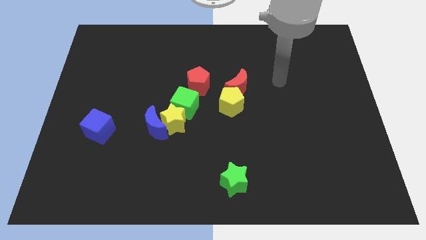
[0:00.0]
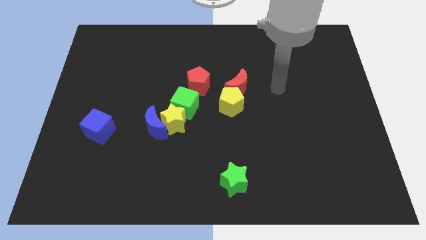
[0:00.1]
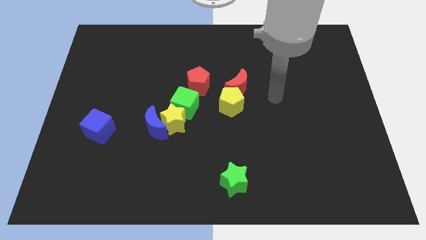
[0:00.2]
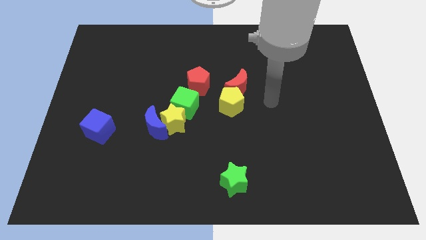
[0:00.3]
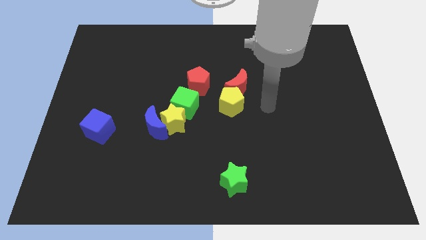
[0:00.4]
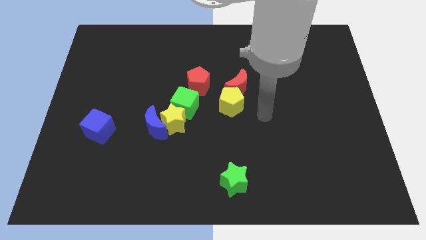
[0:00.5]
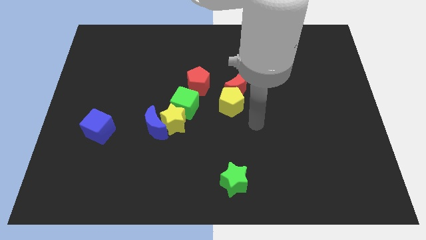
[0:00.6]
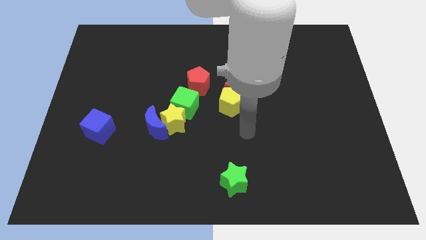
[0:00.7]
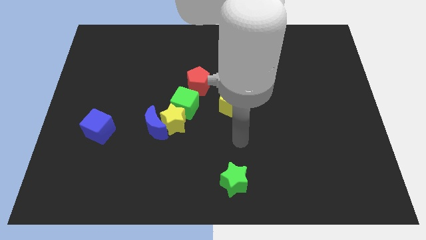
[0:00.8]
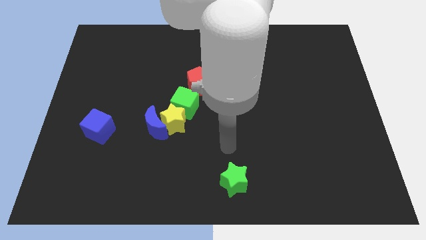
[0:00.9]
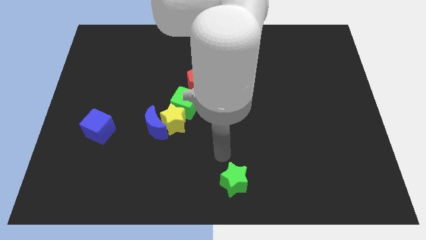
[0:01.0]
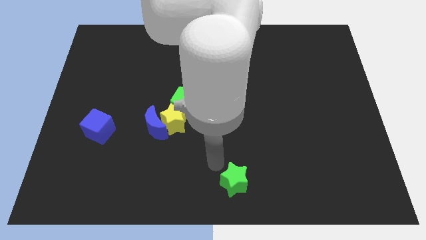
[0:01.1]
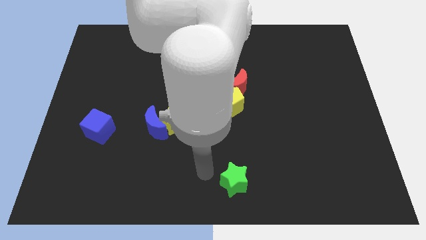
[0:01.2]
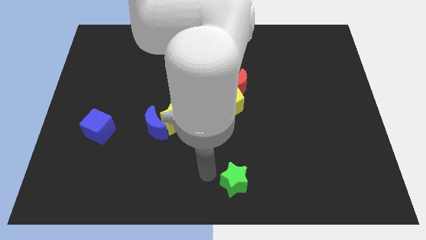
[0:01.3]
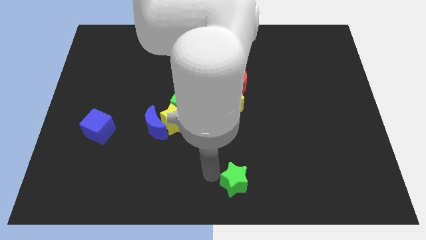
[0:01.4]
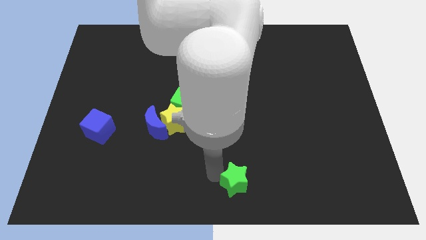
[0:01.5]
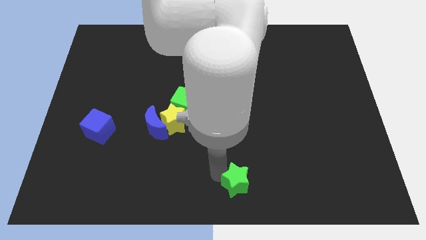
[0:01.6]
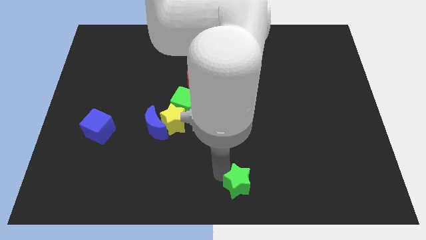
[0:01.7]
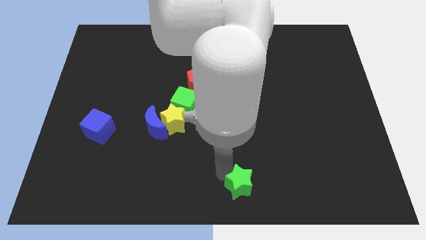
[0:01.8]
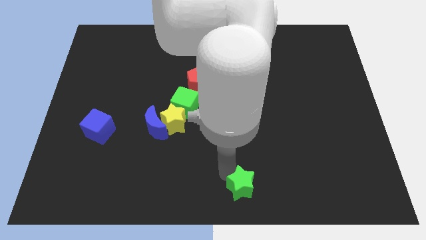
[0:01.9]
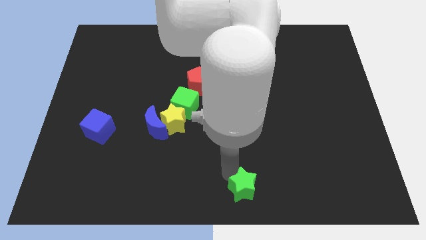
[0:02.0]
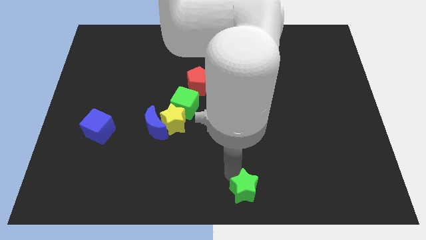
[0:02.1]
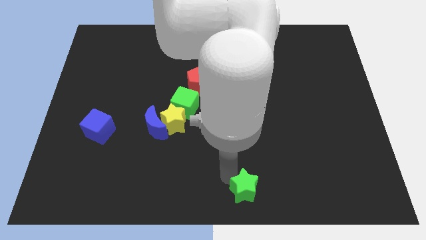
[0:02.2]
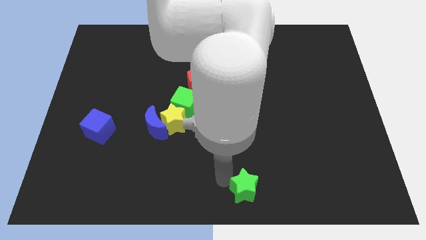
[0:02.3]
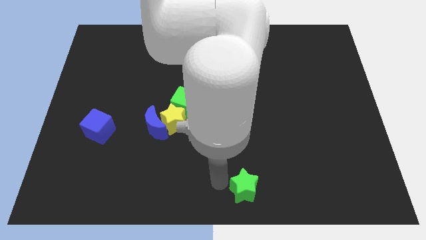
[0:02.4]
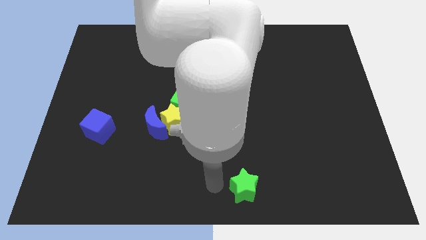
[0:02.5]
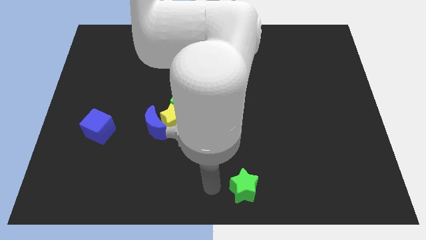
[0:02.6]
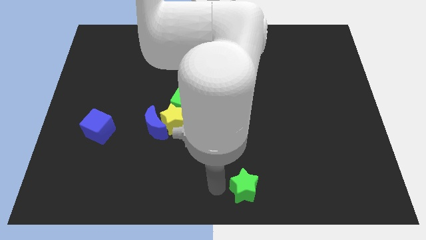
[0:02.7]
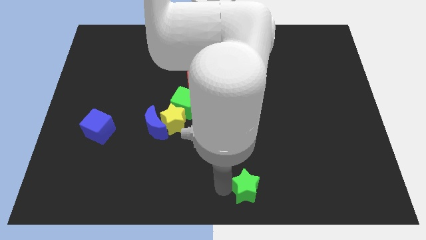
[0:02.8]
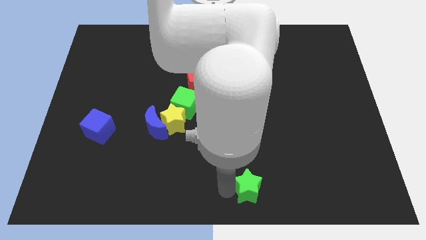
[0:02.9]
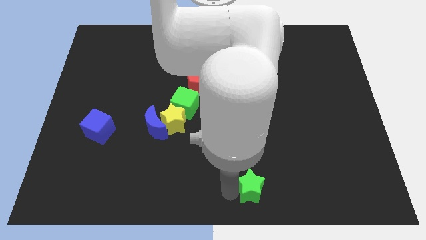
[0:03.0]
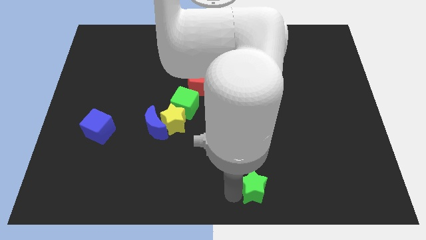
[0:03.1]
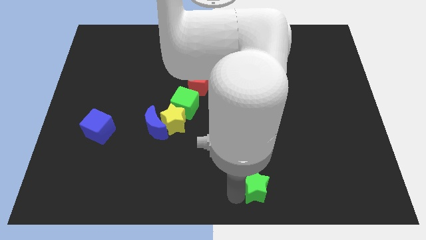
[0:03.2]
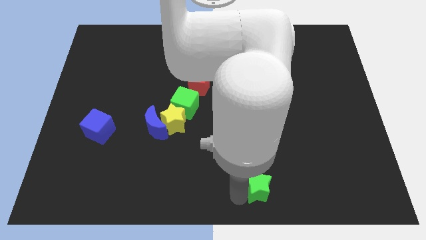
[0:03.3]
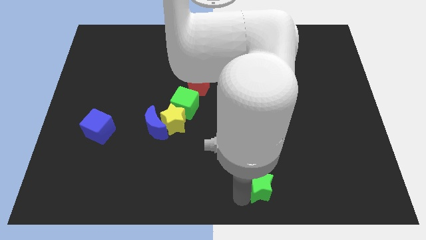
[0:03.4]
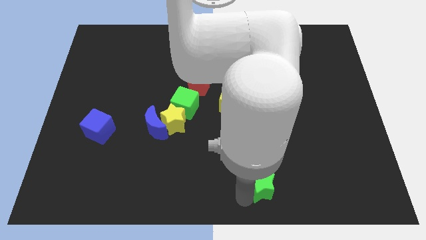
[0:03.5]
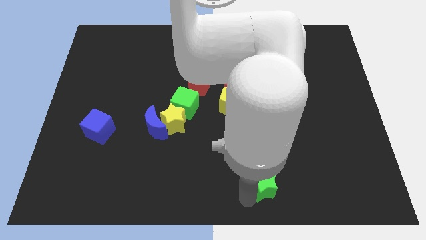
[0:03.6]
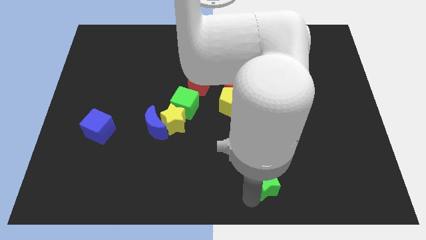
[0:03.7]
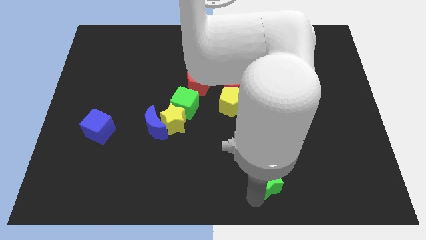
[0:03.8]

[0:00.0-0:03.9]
slide the green star a little bit to the right

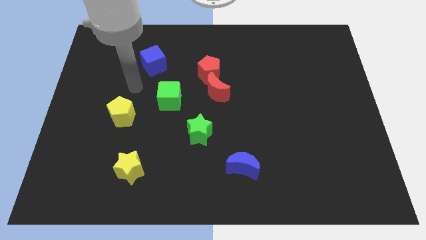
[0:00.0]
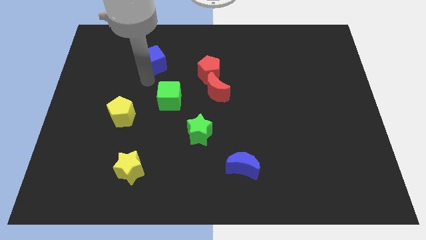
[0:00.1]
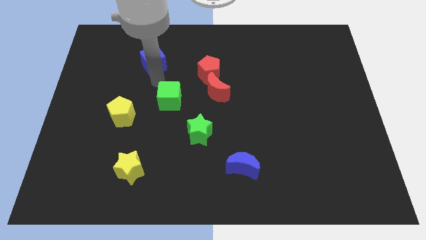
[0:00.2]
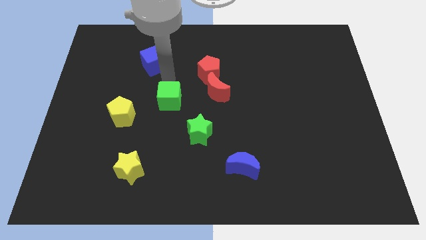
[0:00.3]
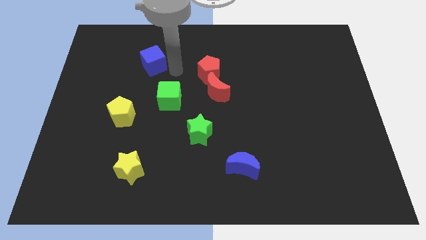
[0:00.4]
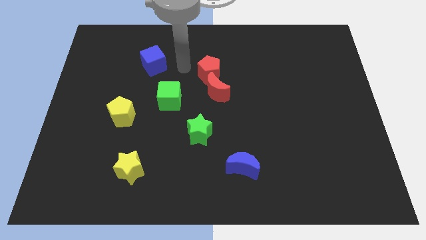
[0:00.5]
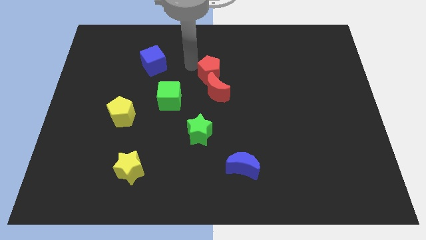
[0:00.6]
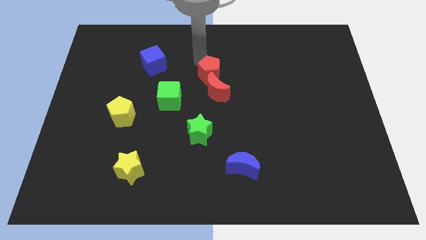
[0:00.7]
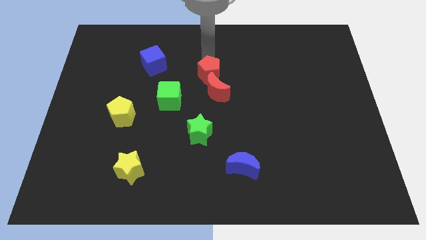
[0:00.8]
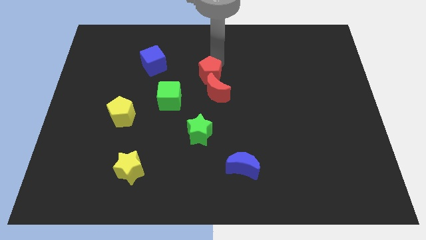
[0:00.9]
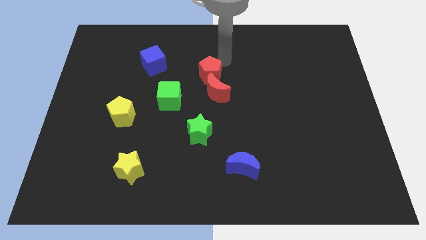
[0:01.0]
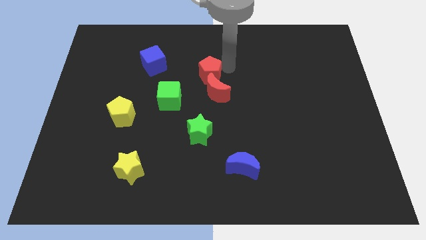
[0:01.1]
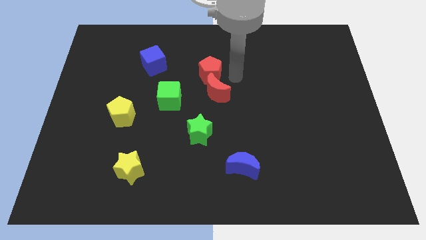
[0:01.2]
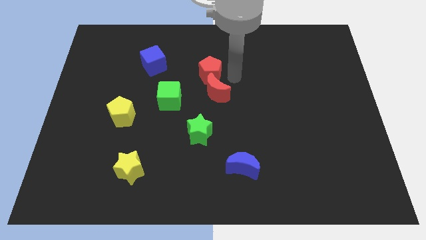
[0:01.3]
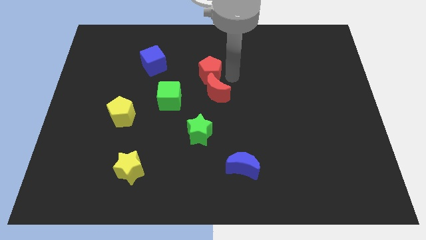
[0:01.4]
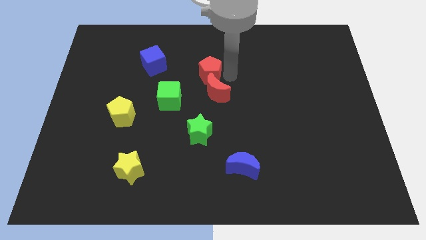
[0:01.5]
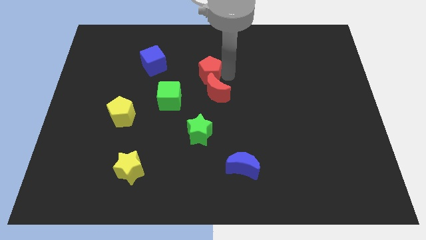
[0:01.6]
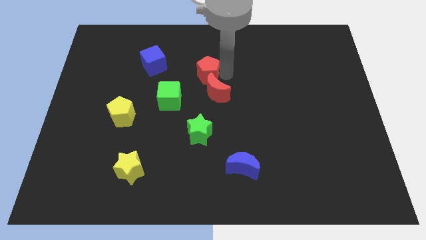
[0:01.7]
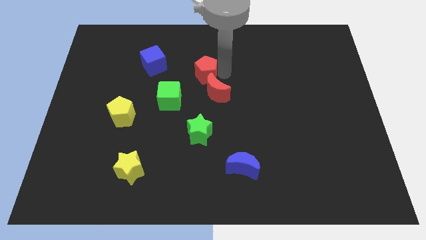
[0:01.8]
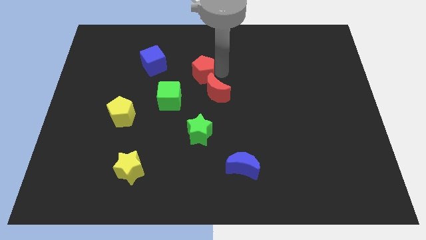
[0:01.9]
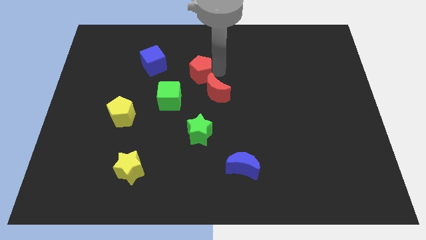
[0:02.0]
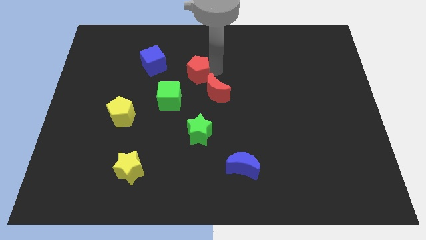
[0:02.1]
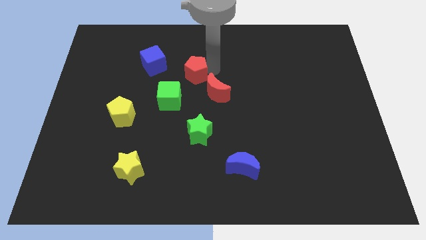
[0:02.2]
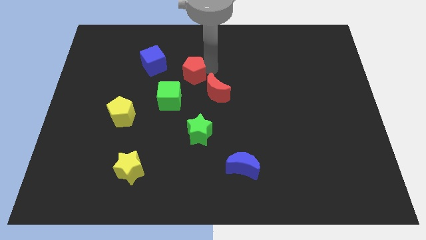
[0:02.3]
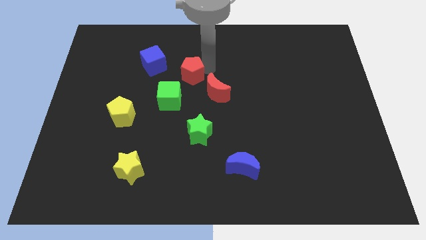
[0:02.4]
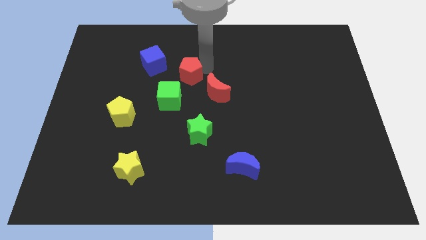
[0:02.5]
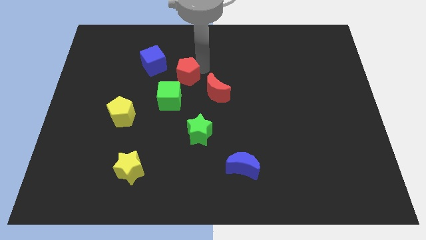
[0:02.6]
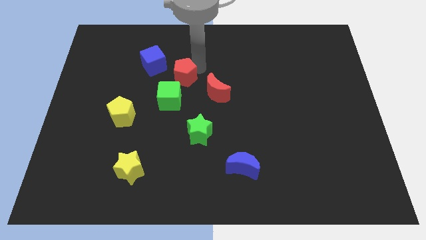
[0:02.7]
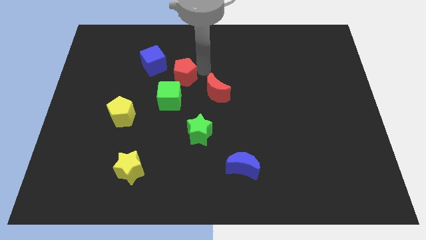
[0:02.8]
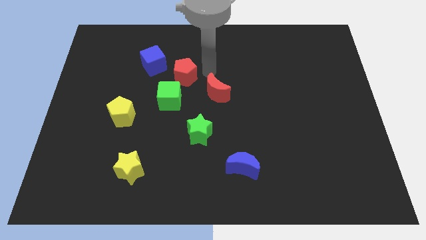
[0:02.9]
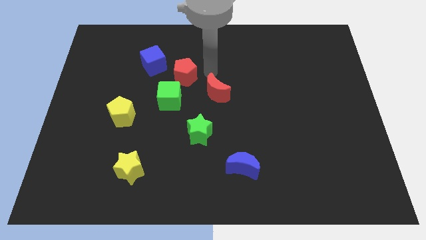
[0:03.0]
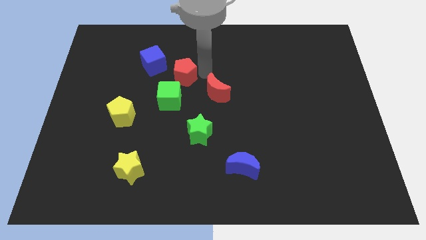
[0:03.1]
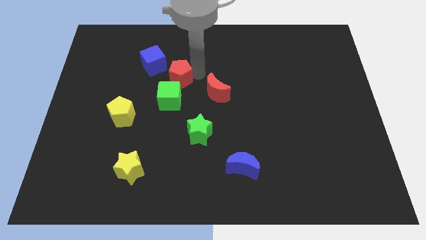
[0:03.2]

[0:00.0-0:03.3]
slightly slide the red pentagon left

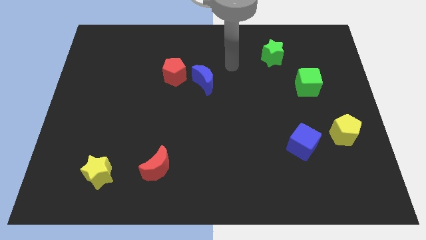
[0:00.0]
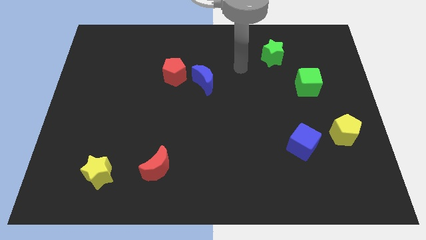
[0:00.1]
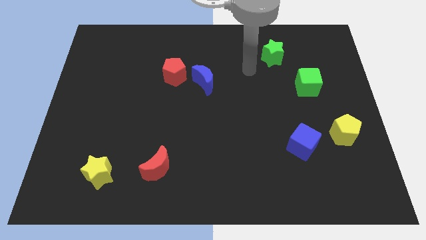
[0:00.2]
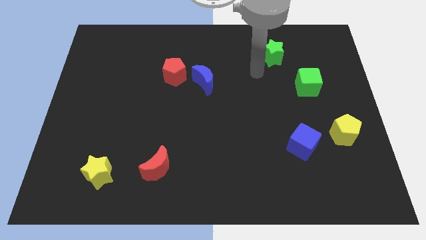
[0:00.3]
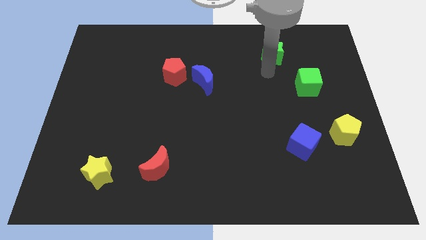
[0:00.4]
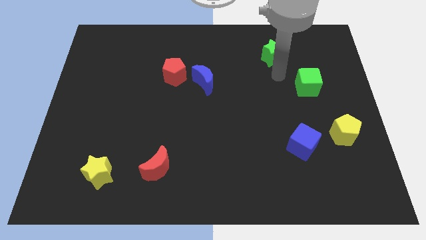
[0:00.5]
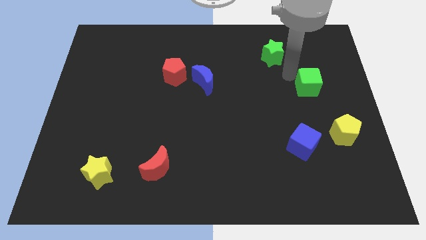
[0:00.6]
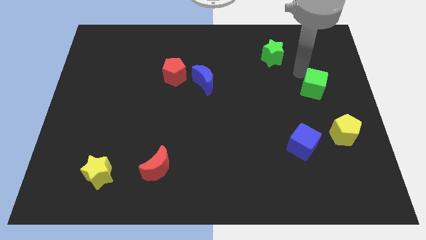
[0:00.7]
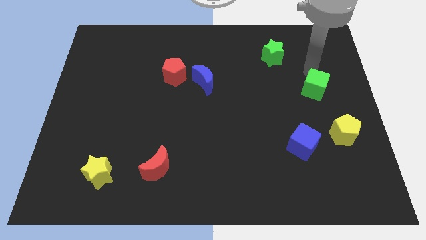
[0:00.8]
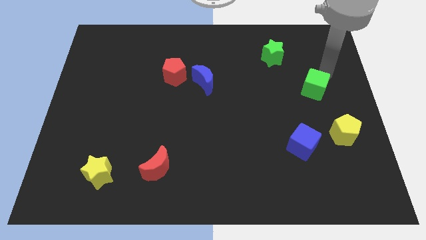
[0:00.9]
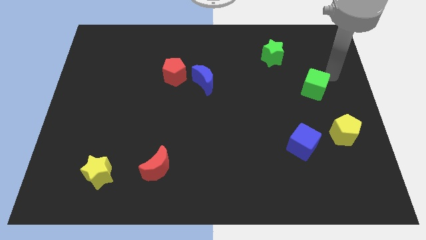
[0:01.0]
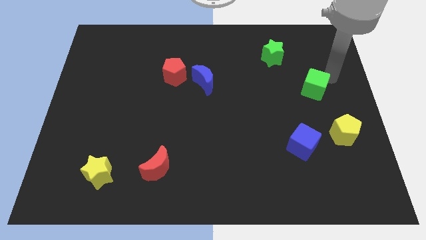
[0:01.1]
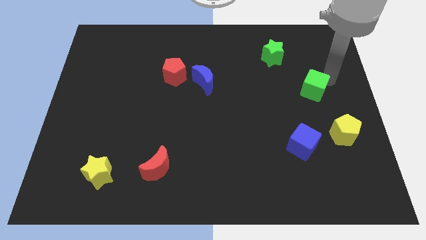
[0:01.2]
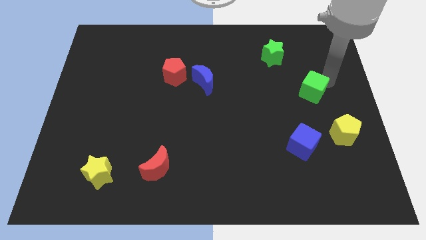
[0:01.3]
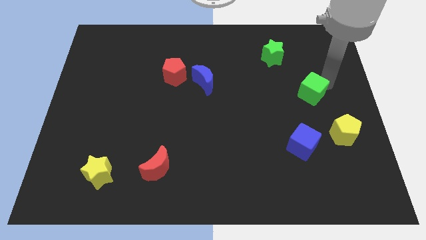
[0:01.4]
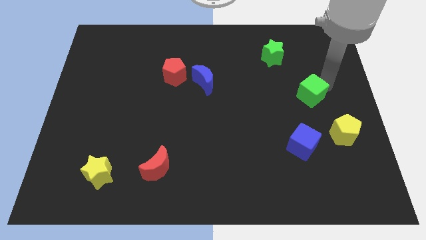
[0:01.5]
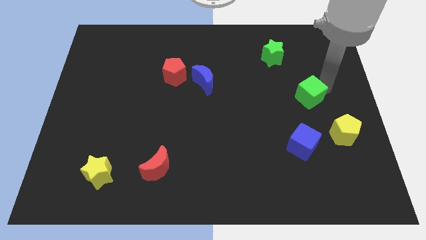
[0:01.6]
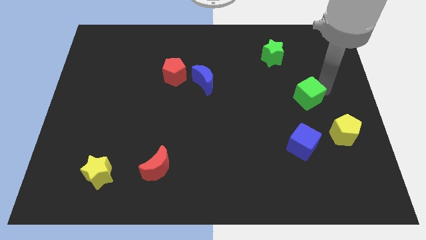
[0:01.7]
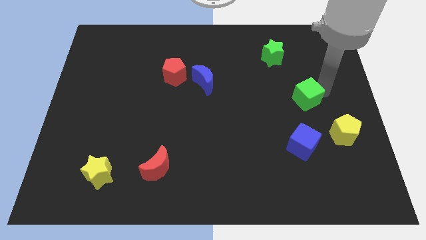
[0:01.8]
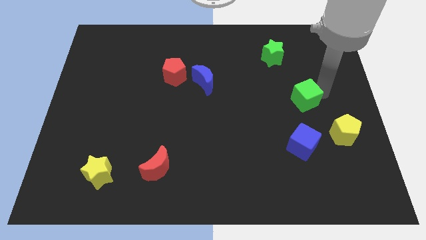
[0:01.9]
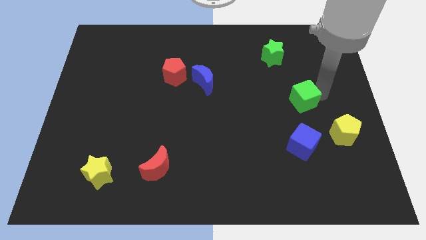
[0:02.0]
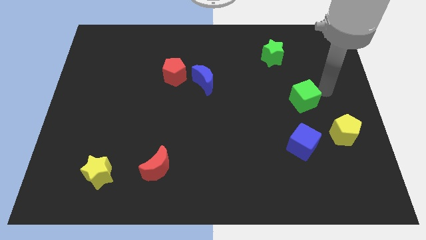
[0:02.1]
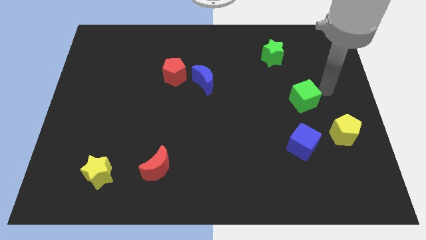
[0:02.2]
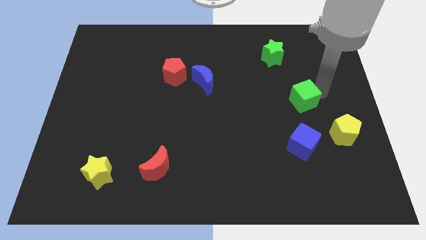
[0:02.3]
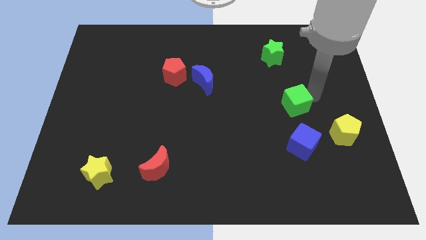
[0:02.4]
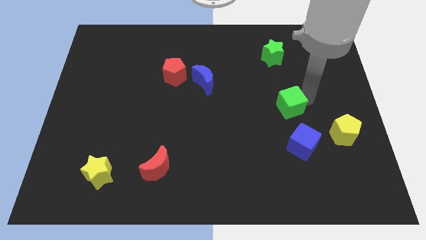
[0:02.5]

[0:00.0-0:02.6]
slightly slide the green cube down and left
